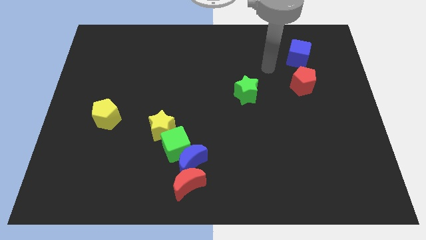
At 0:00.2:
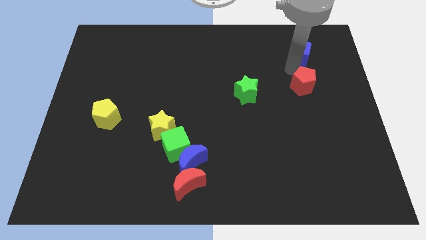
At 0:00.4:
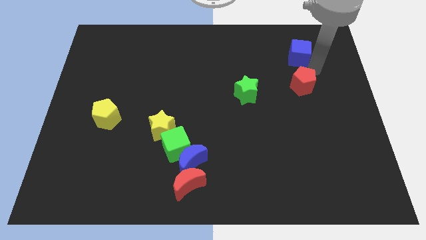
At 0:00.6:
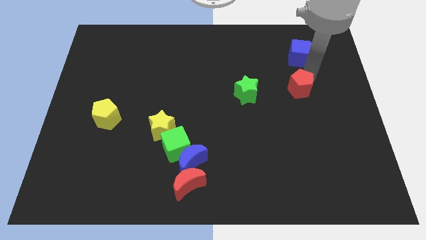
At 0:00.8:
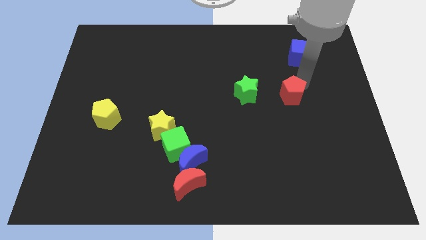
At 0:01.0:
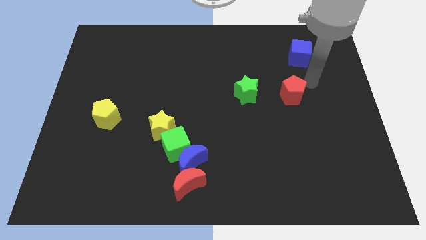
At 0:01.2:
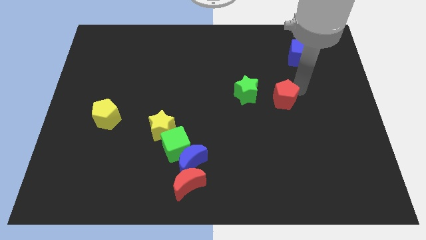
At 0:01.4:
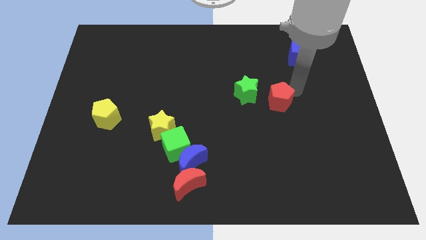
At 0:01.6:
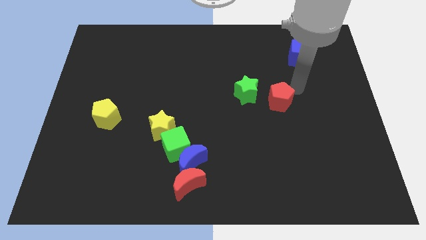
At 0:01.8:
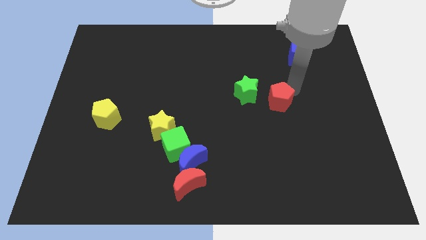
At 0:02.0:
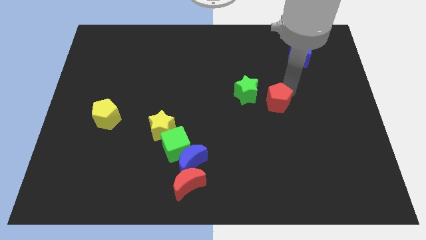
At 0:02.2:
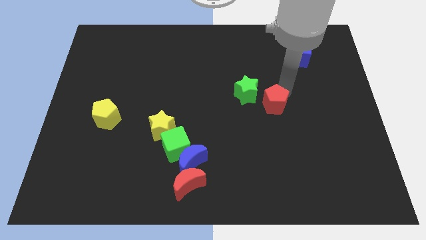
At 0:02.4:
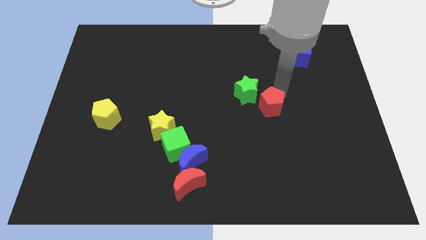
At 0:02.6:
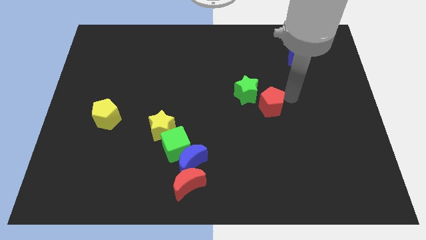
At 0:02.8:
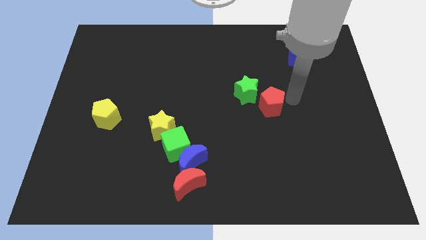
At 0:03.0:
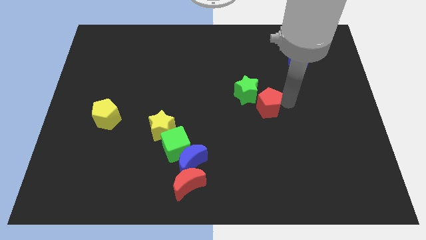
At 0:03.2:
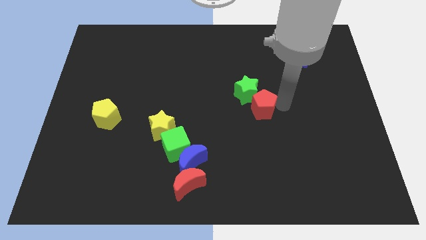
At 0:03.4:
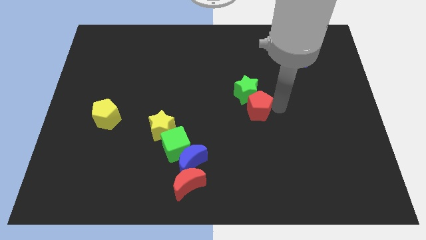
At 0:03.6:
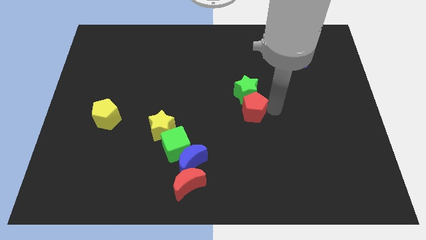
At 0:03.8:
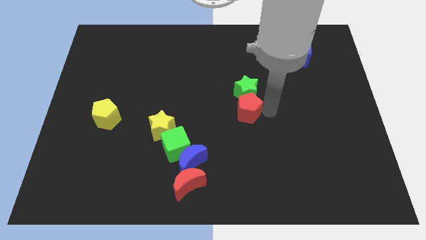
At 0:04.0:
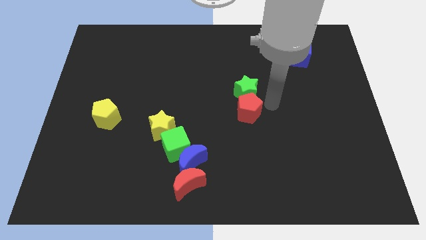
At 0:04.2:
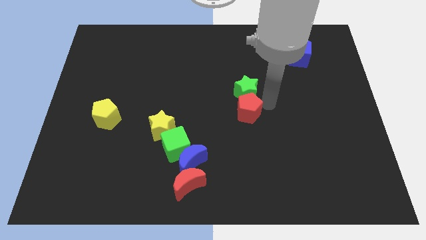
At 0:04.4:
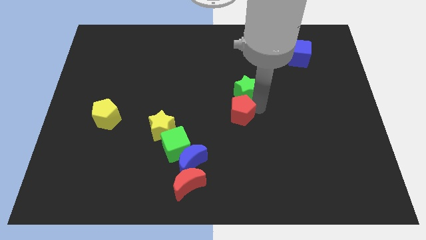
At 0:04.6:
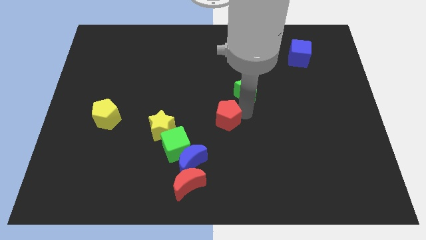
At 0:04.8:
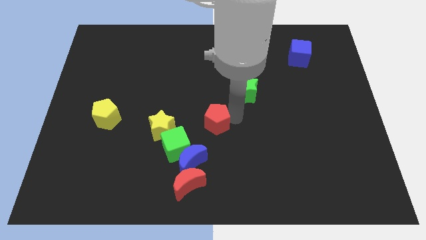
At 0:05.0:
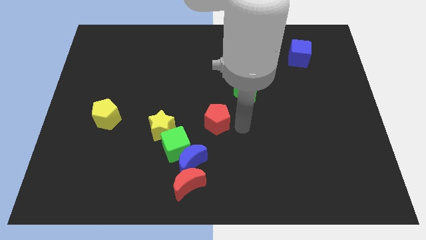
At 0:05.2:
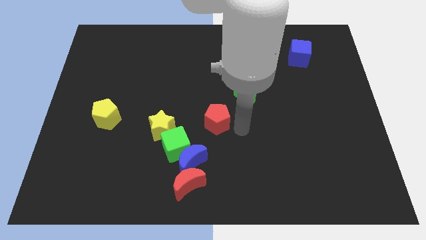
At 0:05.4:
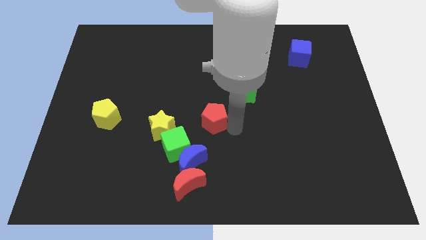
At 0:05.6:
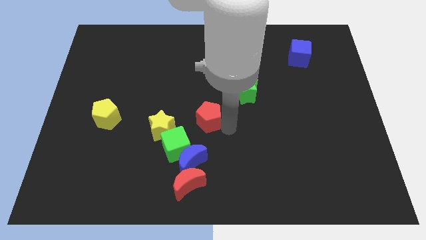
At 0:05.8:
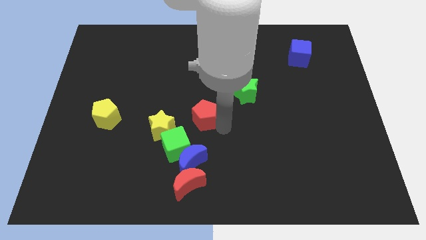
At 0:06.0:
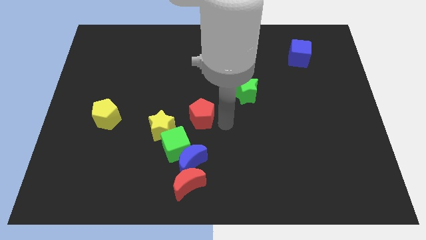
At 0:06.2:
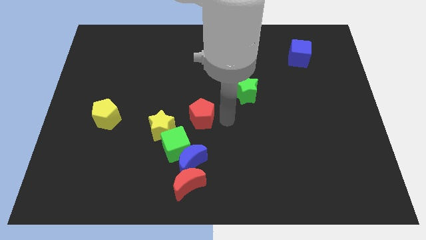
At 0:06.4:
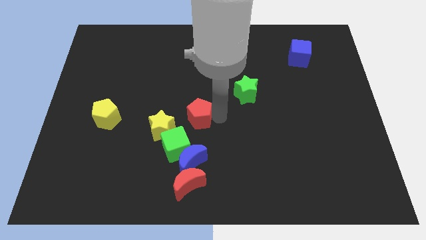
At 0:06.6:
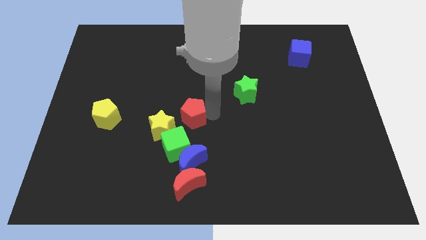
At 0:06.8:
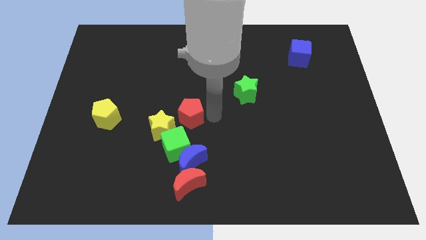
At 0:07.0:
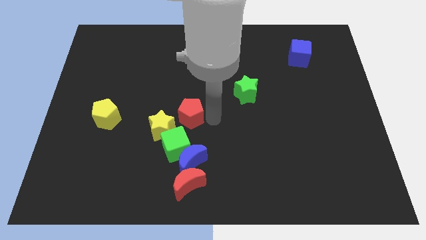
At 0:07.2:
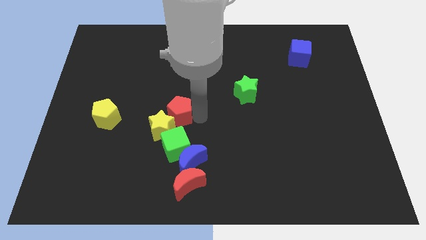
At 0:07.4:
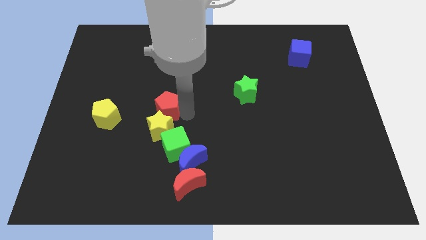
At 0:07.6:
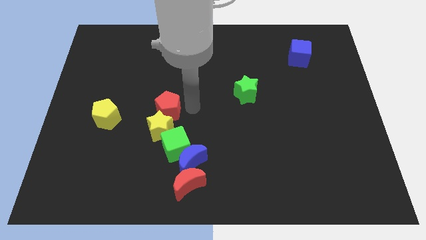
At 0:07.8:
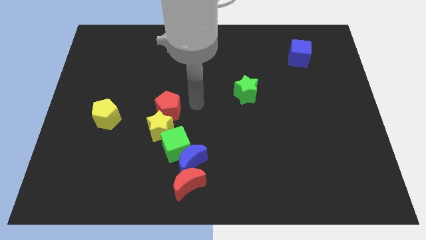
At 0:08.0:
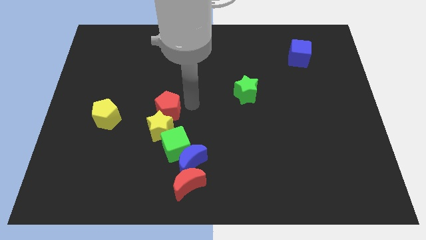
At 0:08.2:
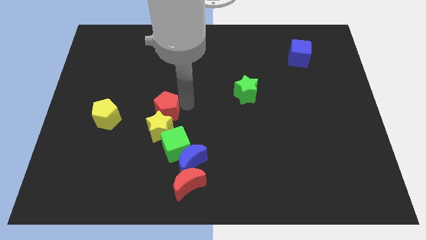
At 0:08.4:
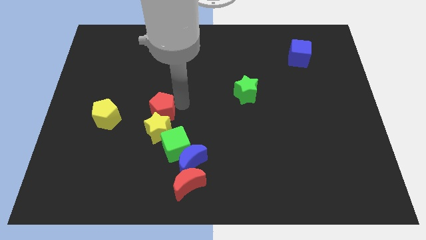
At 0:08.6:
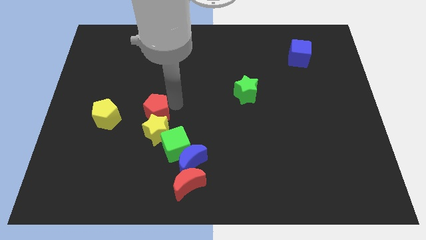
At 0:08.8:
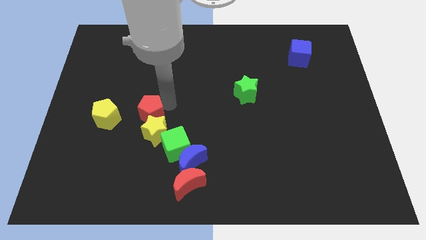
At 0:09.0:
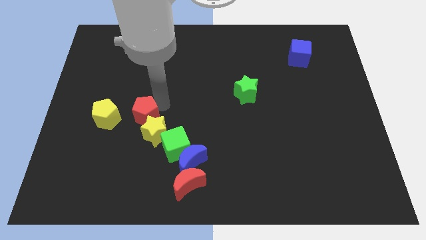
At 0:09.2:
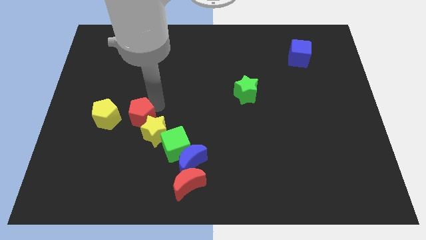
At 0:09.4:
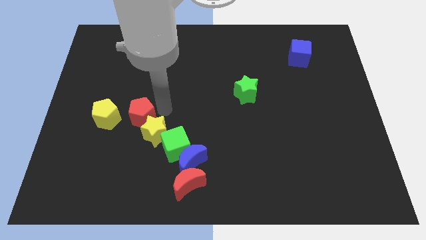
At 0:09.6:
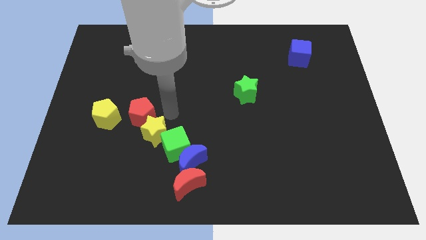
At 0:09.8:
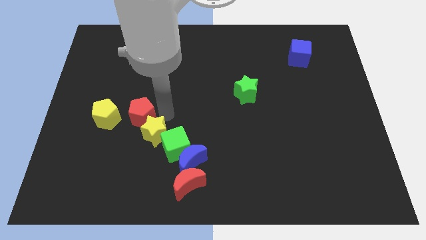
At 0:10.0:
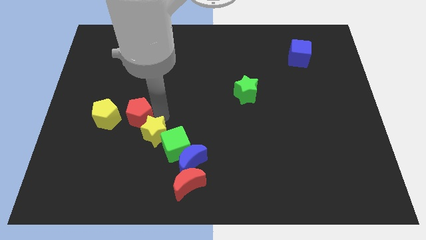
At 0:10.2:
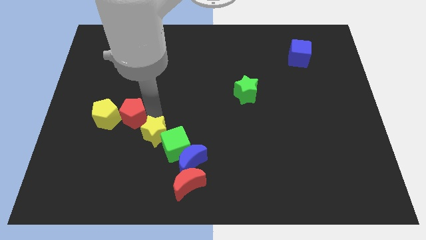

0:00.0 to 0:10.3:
put the red pentagon close to the yellow pentagon

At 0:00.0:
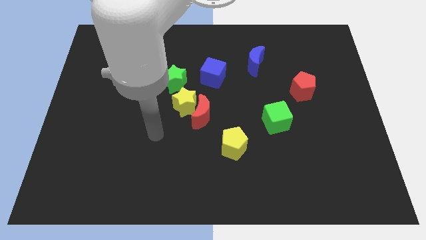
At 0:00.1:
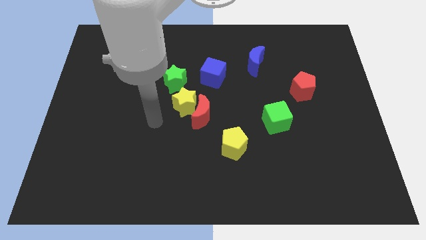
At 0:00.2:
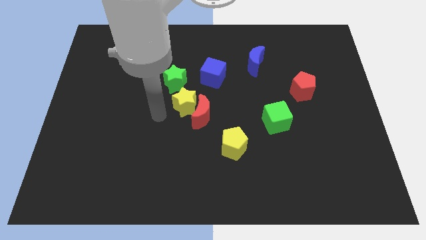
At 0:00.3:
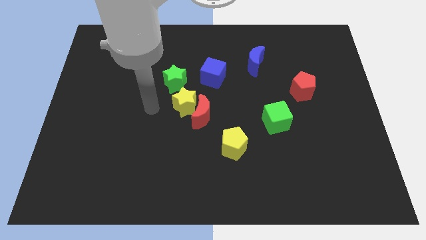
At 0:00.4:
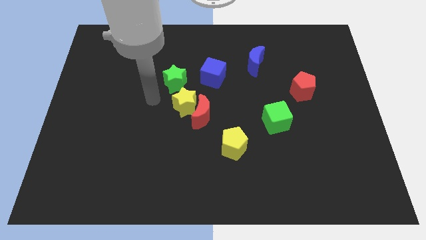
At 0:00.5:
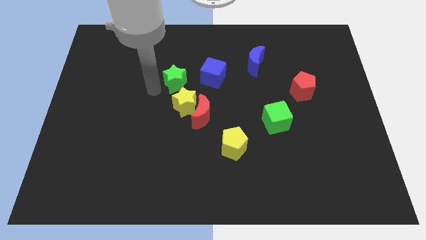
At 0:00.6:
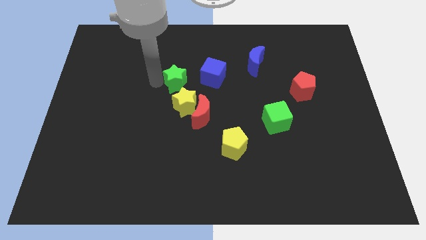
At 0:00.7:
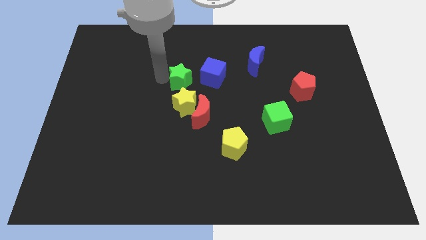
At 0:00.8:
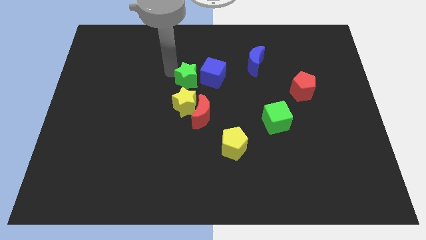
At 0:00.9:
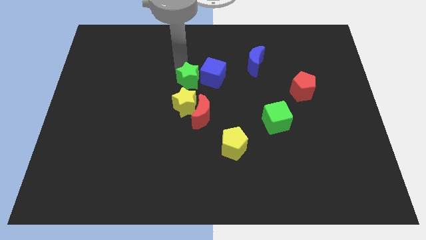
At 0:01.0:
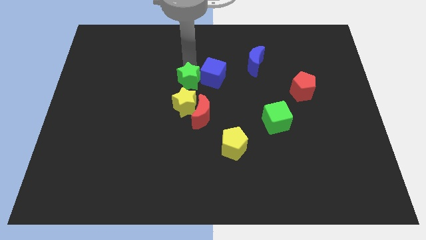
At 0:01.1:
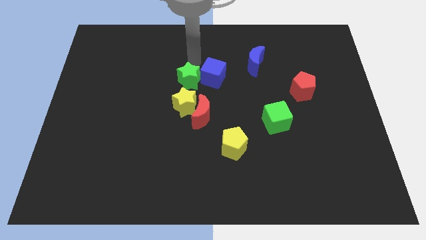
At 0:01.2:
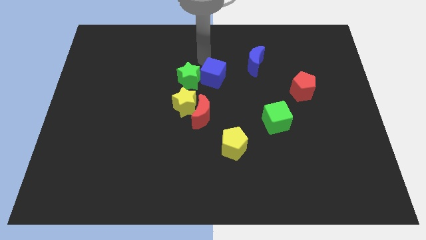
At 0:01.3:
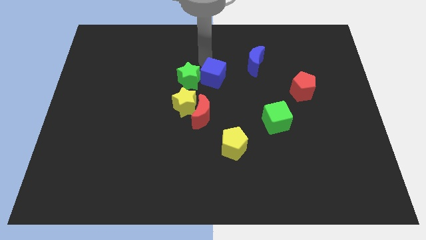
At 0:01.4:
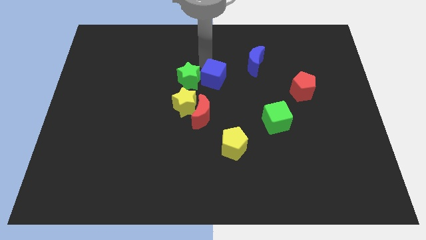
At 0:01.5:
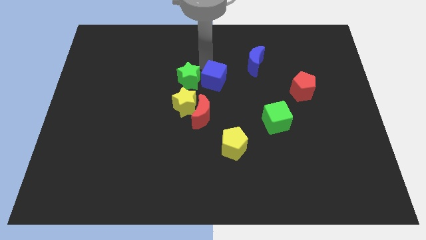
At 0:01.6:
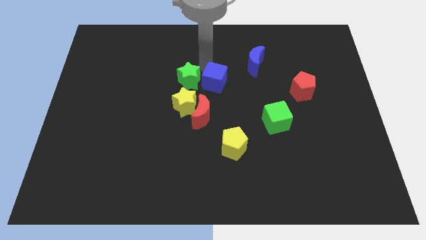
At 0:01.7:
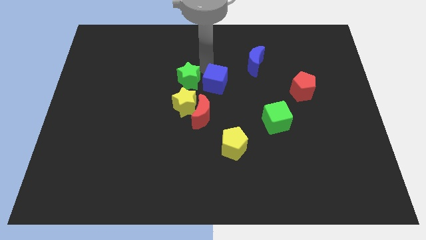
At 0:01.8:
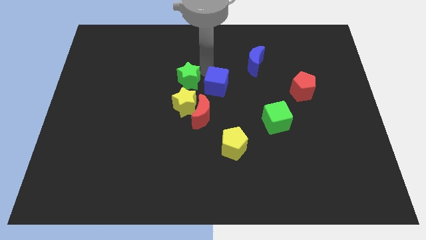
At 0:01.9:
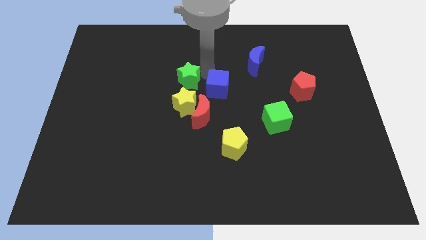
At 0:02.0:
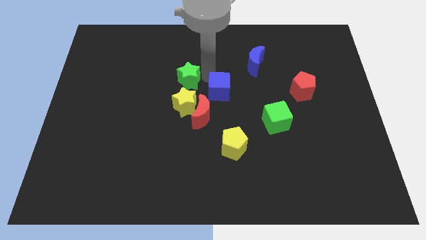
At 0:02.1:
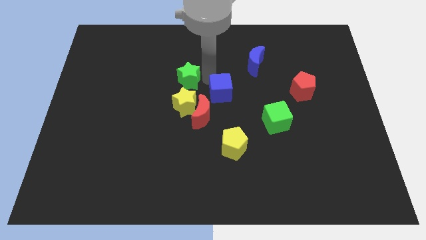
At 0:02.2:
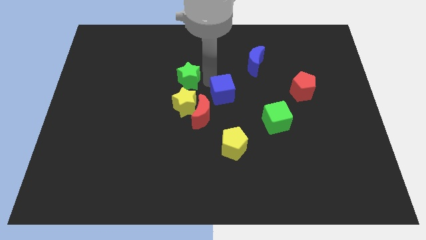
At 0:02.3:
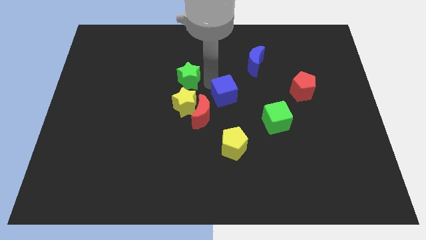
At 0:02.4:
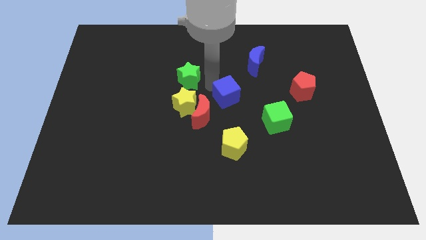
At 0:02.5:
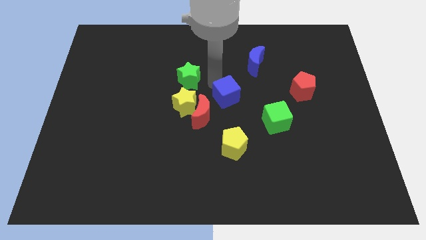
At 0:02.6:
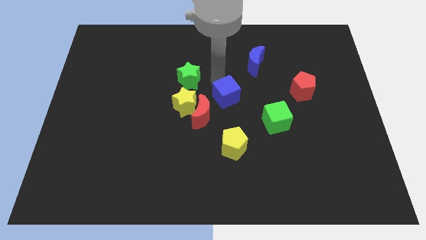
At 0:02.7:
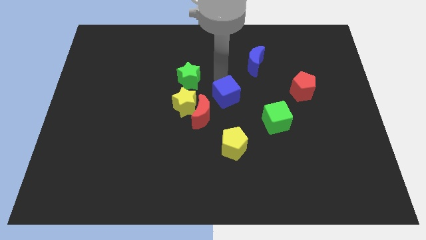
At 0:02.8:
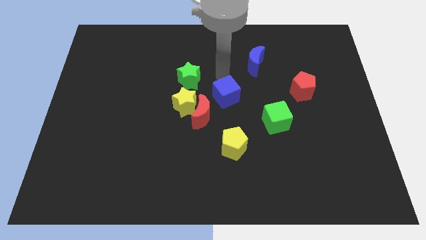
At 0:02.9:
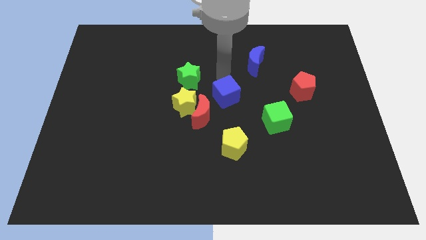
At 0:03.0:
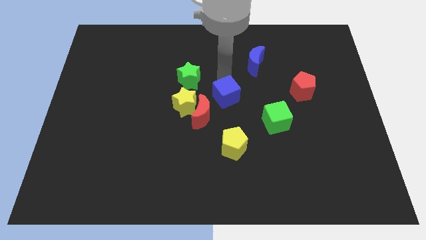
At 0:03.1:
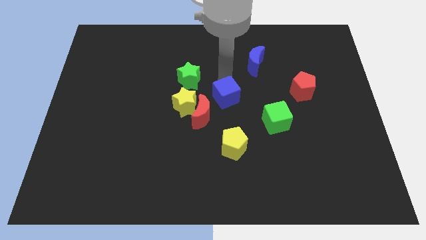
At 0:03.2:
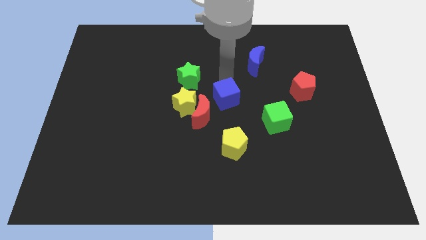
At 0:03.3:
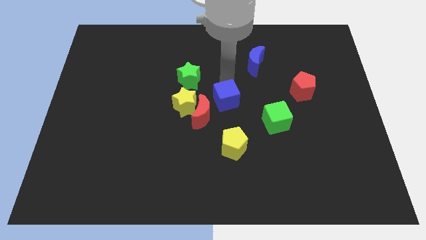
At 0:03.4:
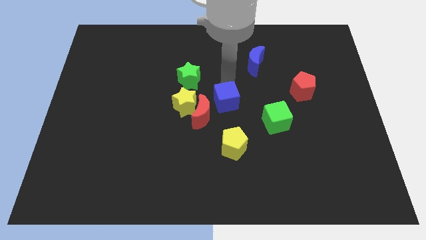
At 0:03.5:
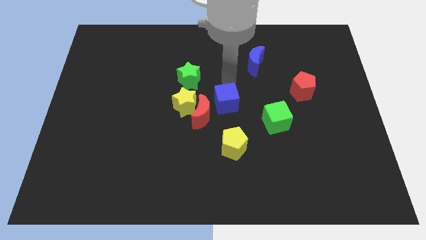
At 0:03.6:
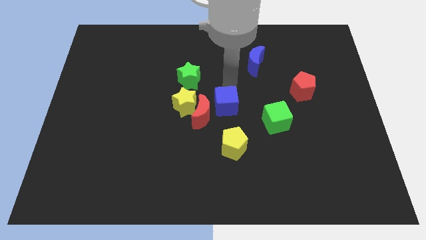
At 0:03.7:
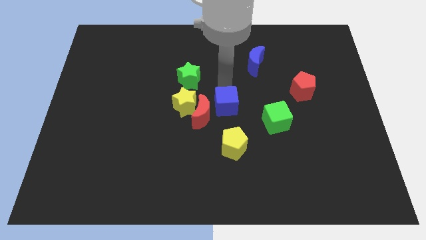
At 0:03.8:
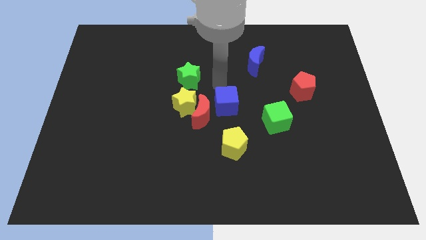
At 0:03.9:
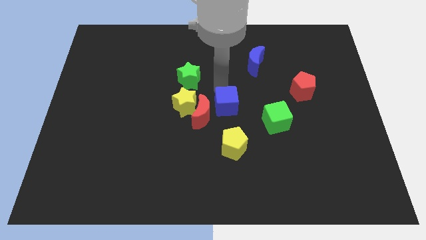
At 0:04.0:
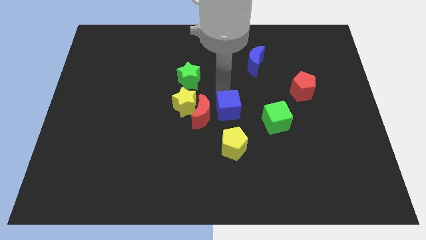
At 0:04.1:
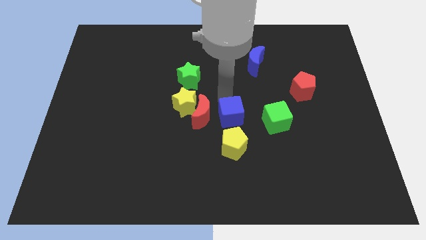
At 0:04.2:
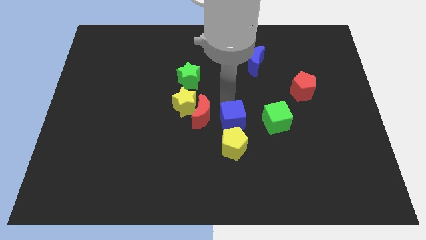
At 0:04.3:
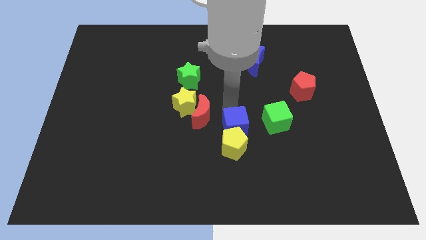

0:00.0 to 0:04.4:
move the blue cube close to the yellow pentagon
